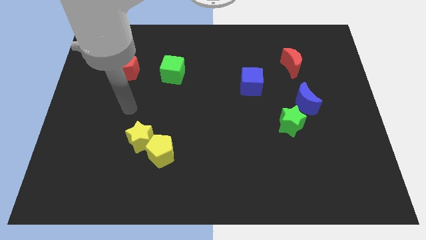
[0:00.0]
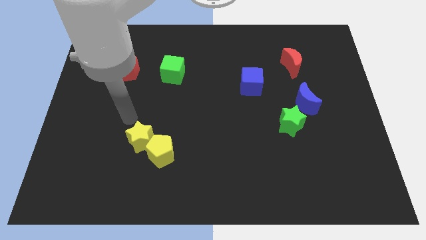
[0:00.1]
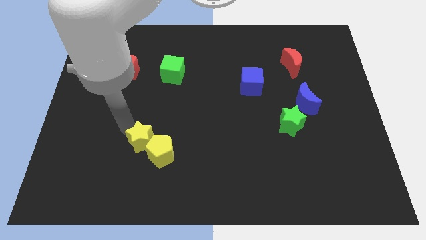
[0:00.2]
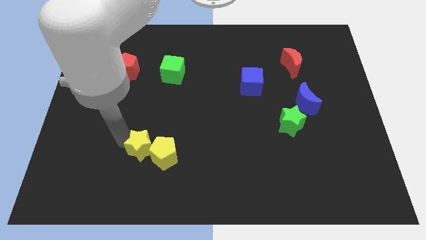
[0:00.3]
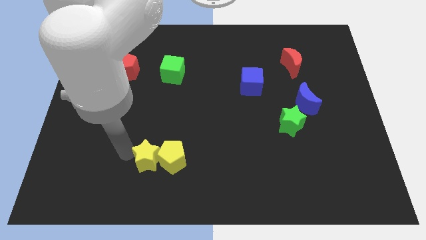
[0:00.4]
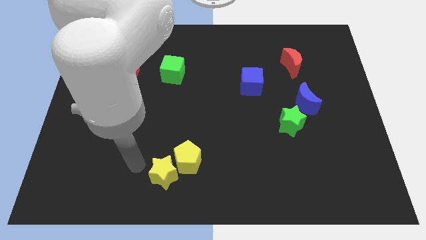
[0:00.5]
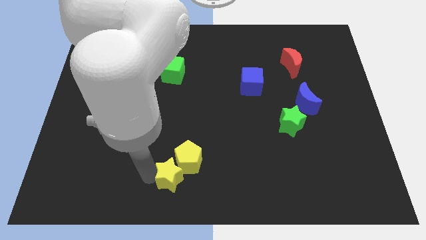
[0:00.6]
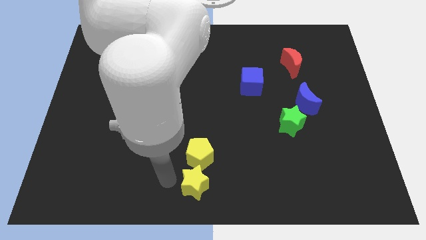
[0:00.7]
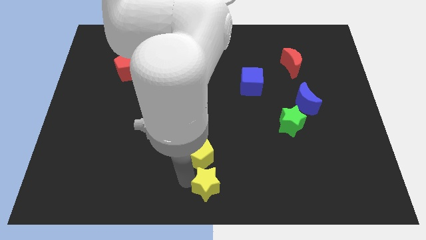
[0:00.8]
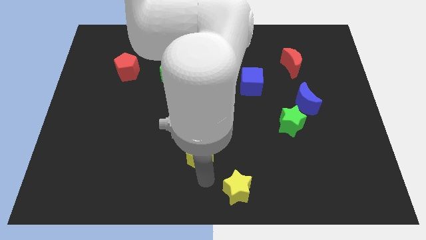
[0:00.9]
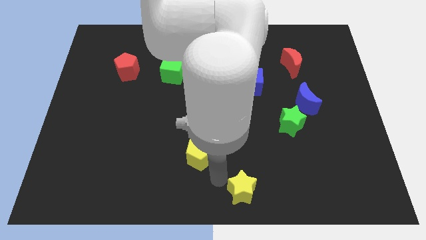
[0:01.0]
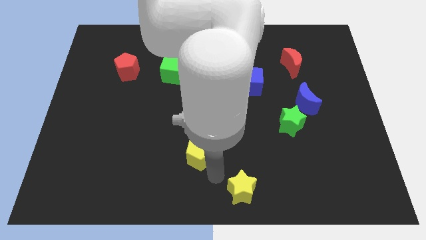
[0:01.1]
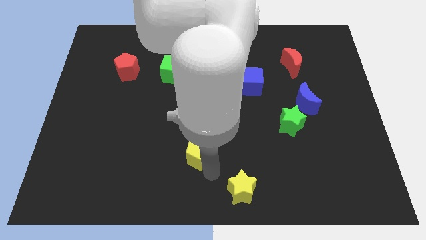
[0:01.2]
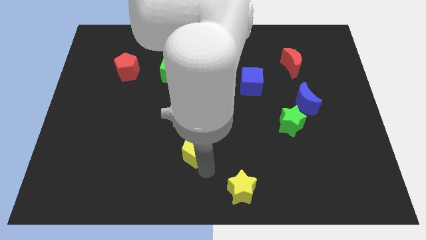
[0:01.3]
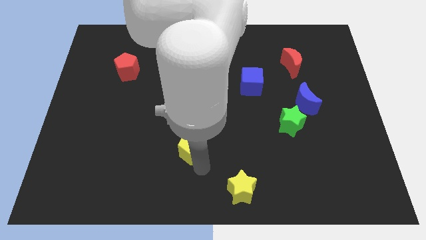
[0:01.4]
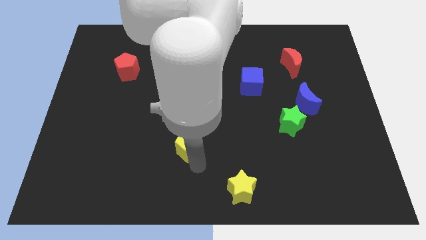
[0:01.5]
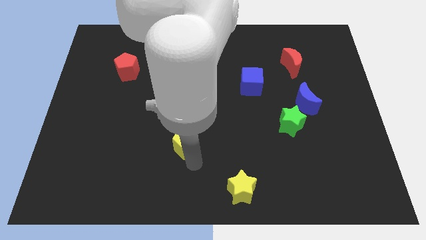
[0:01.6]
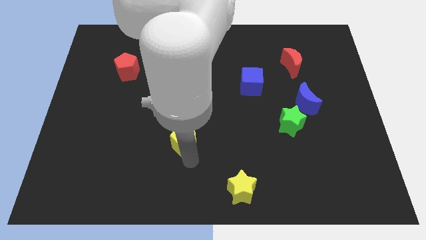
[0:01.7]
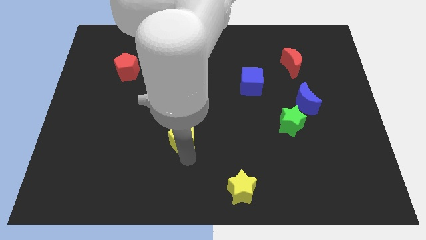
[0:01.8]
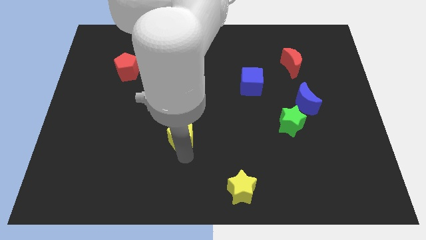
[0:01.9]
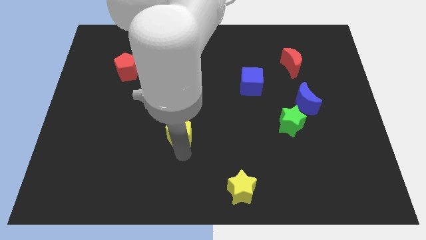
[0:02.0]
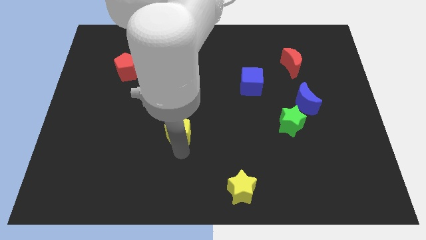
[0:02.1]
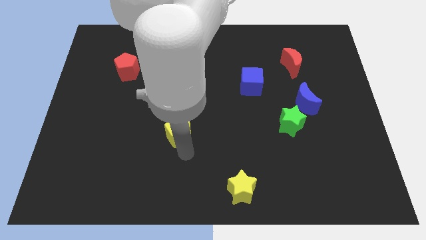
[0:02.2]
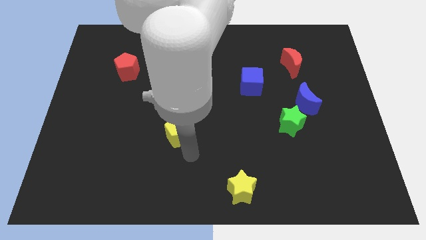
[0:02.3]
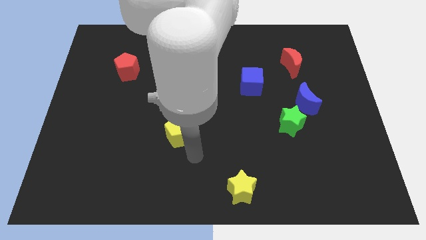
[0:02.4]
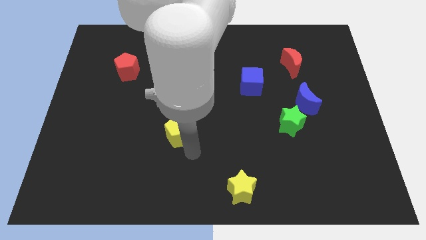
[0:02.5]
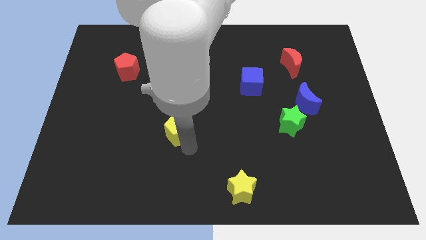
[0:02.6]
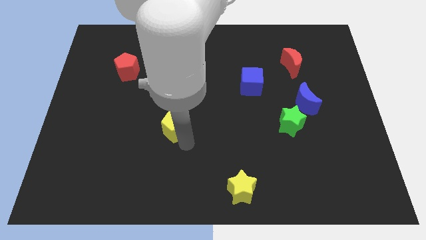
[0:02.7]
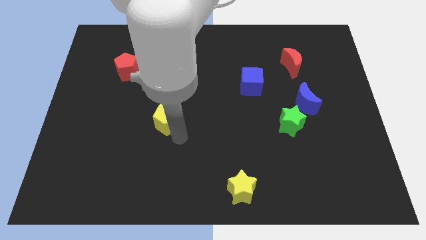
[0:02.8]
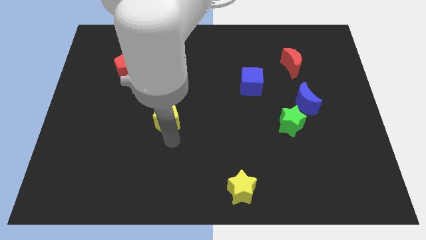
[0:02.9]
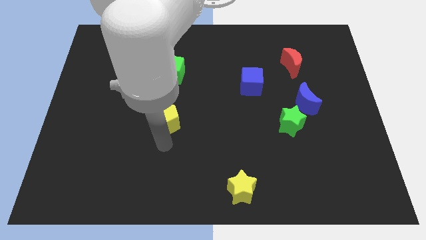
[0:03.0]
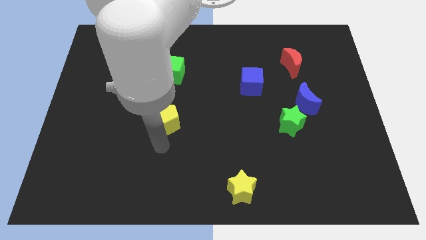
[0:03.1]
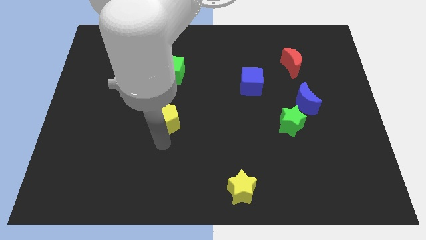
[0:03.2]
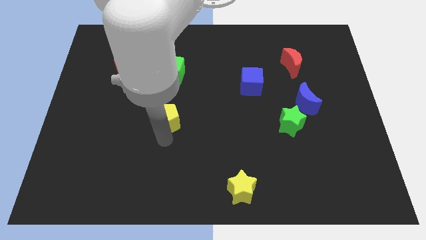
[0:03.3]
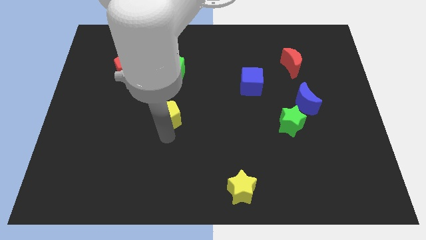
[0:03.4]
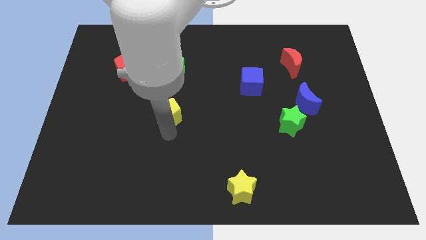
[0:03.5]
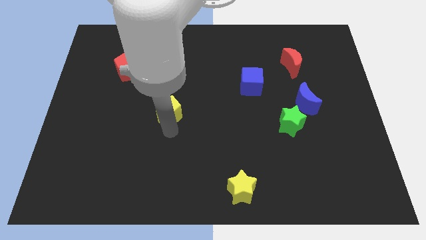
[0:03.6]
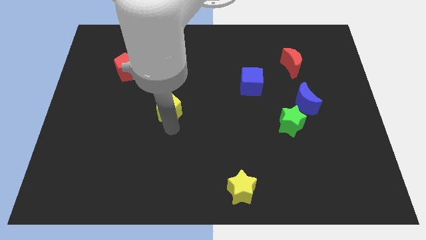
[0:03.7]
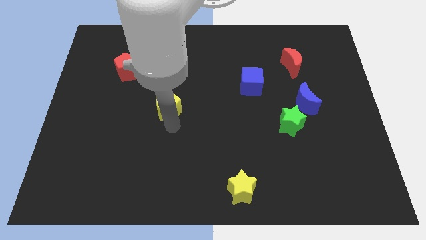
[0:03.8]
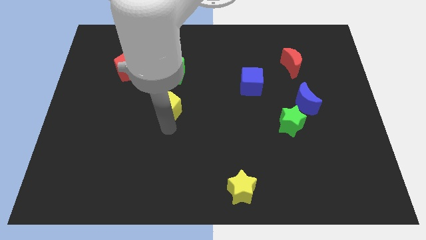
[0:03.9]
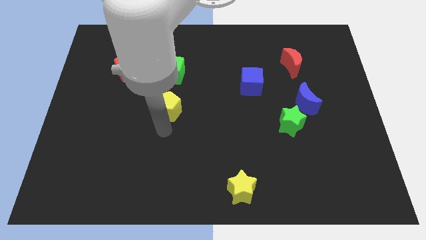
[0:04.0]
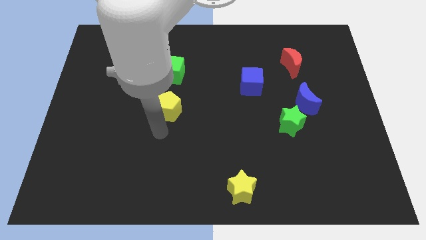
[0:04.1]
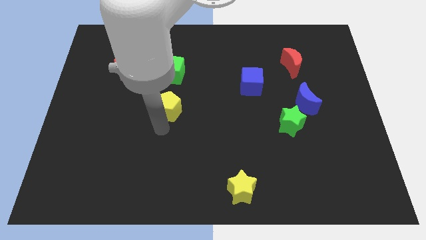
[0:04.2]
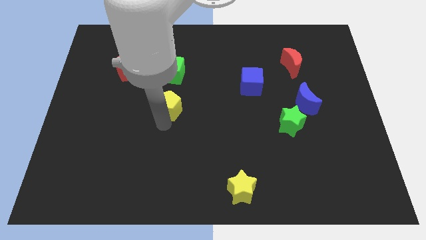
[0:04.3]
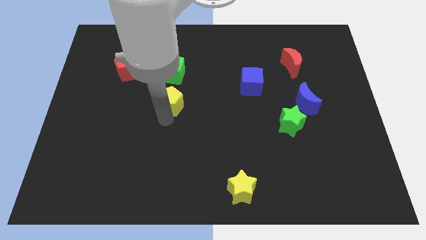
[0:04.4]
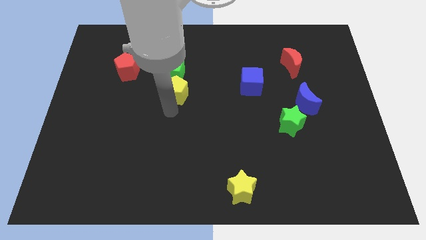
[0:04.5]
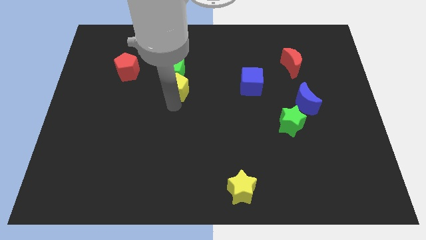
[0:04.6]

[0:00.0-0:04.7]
push the yellow pentagon next to the green cube

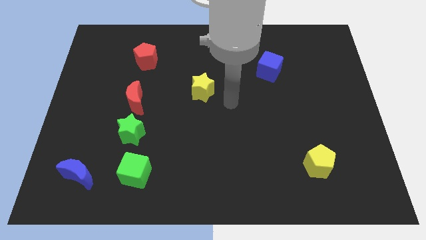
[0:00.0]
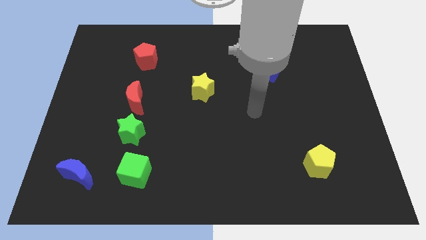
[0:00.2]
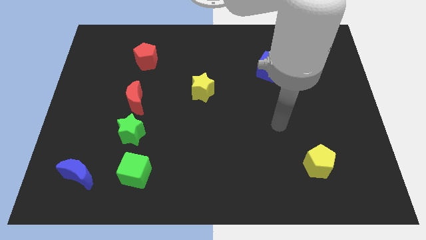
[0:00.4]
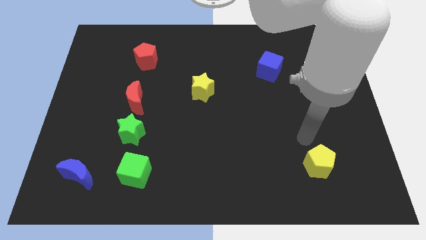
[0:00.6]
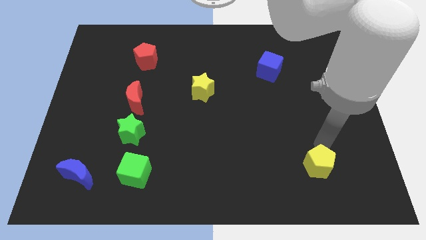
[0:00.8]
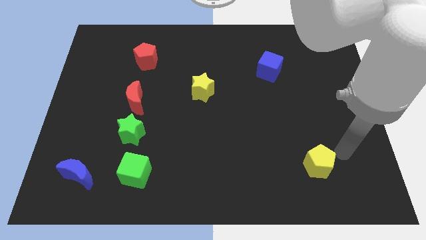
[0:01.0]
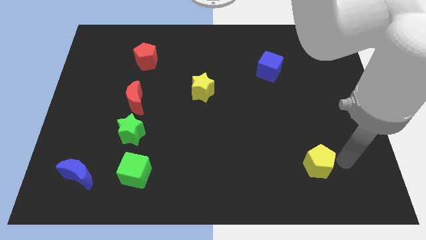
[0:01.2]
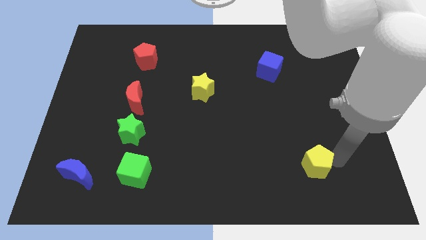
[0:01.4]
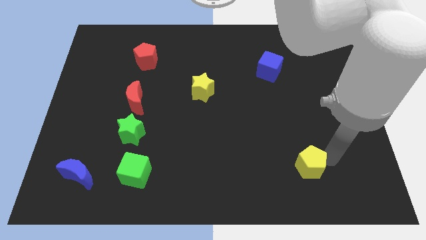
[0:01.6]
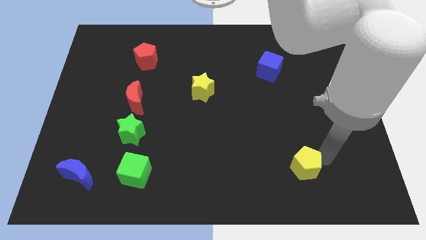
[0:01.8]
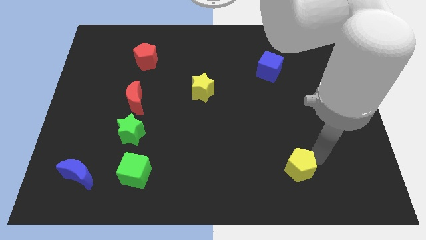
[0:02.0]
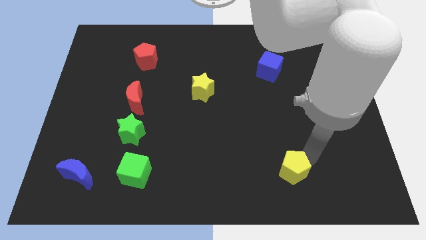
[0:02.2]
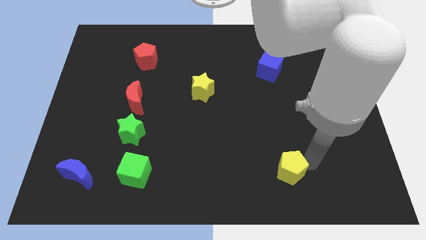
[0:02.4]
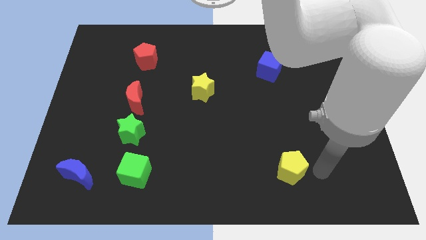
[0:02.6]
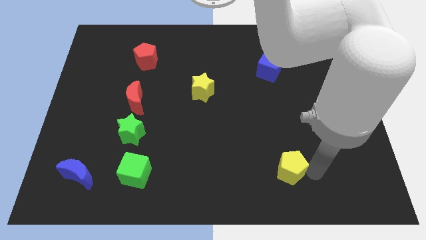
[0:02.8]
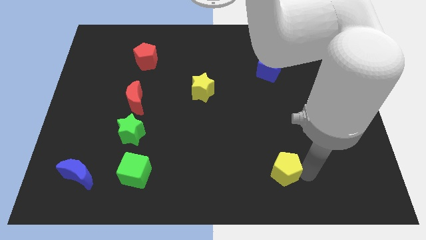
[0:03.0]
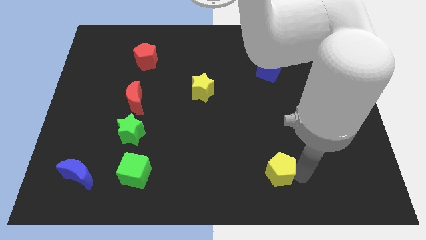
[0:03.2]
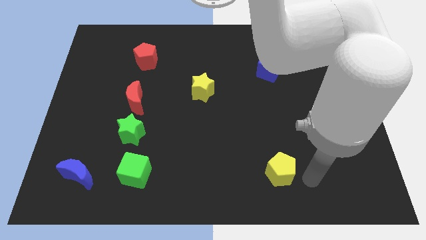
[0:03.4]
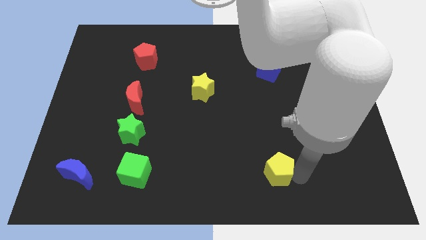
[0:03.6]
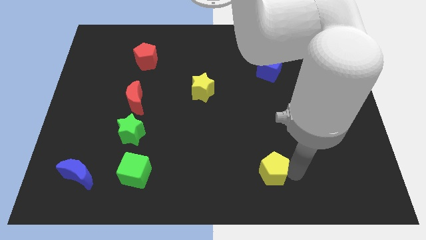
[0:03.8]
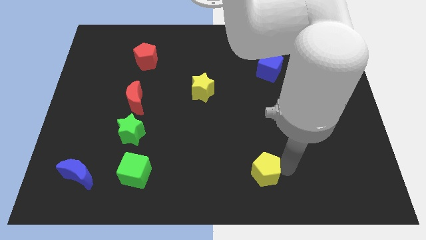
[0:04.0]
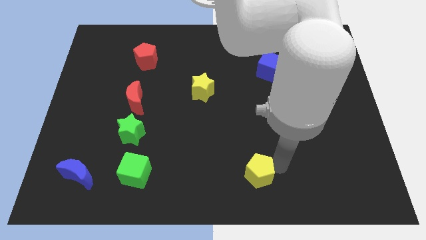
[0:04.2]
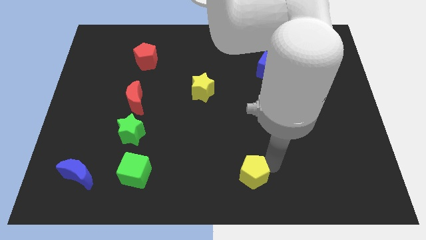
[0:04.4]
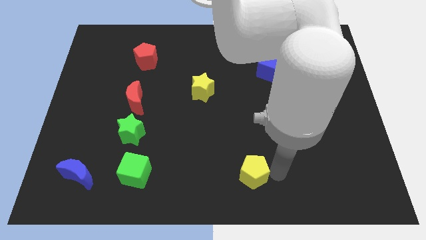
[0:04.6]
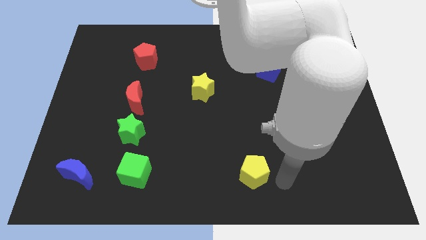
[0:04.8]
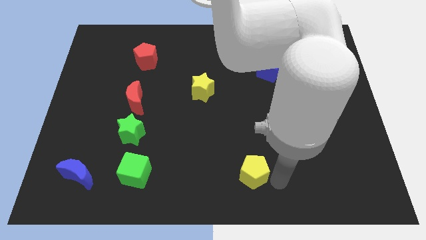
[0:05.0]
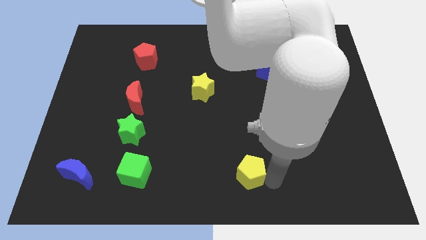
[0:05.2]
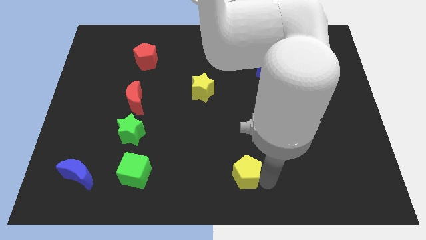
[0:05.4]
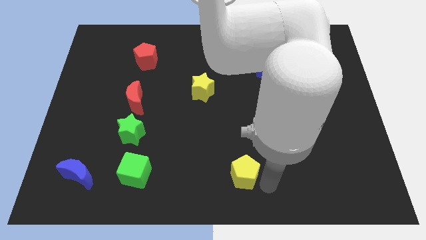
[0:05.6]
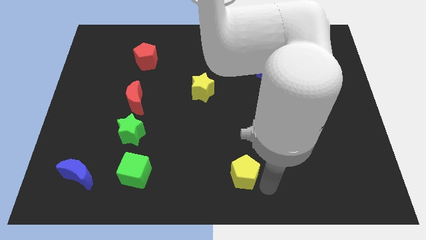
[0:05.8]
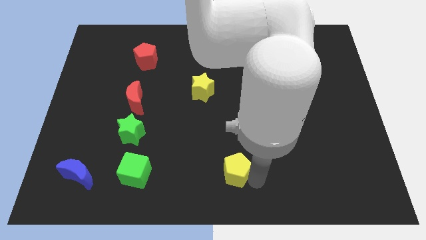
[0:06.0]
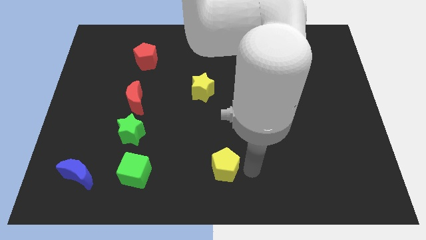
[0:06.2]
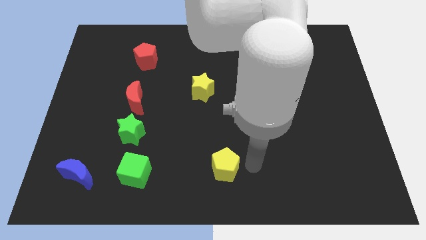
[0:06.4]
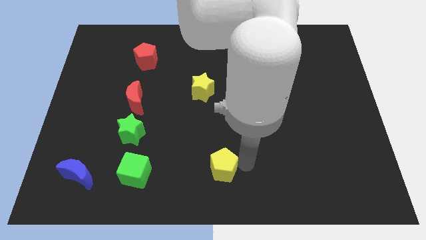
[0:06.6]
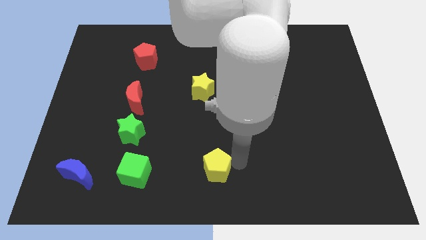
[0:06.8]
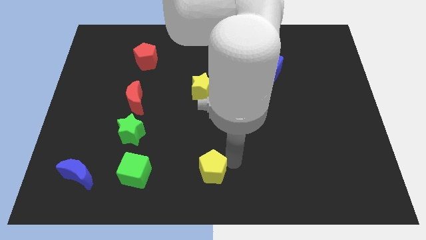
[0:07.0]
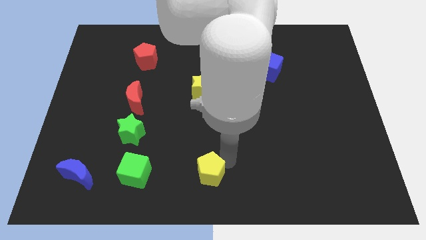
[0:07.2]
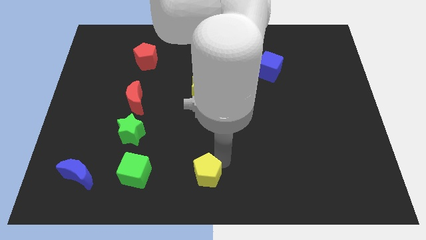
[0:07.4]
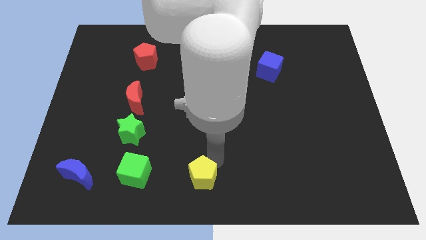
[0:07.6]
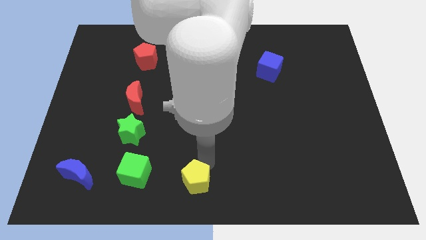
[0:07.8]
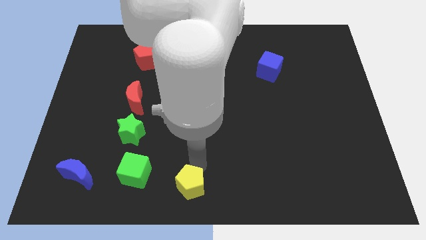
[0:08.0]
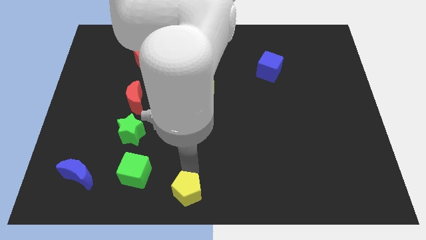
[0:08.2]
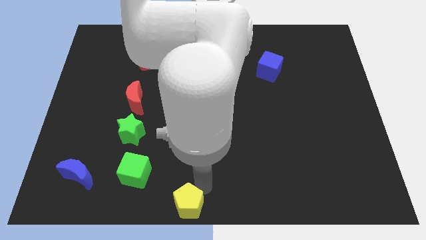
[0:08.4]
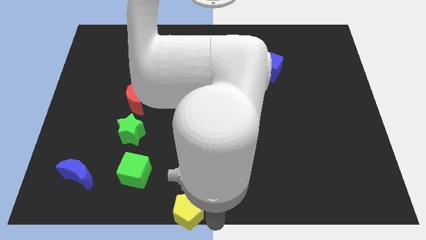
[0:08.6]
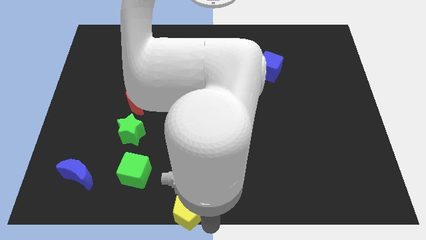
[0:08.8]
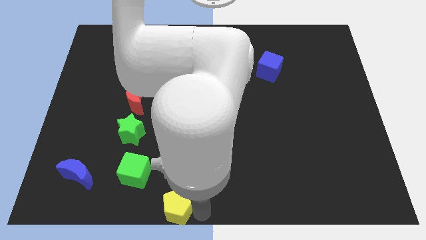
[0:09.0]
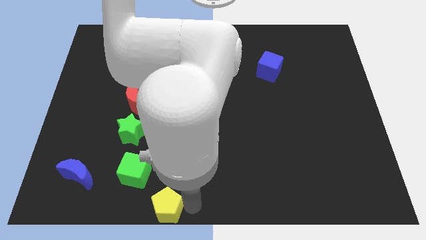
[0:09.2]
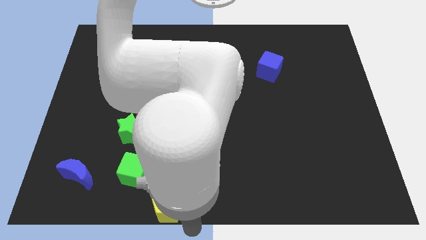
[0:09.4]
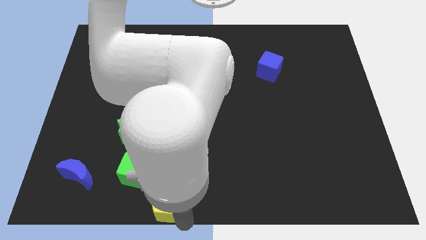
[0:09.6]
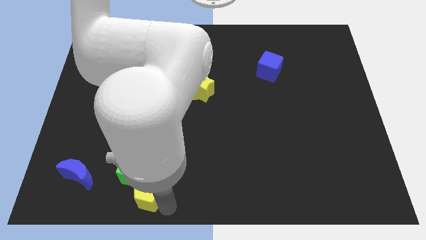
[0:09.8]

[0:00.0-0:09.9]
push the yellow pentagon towards the green cube
